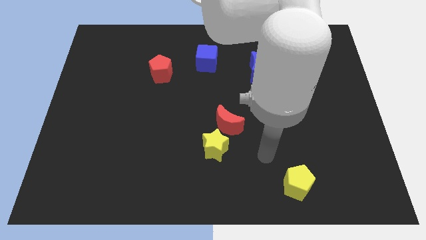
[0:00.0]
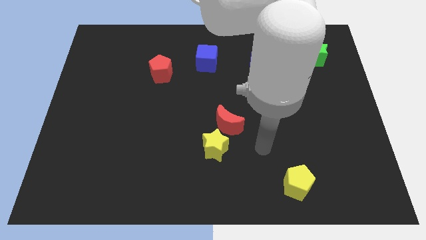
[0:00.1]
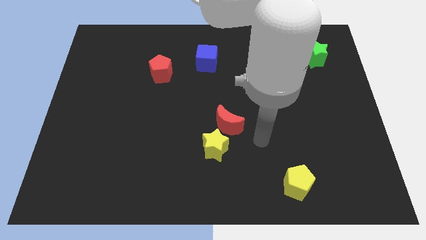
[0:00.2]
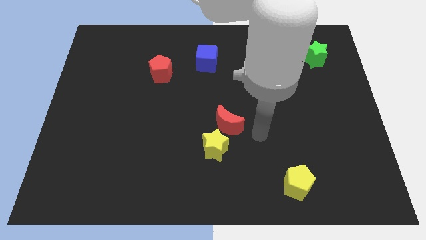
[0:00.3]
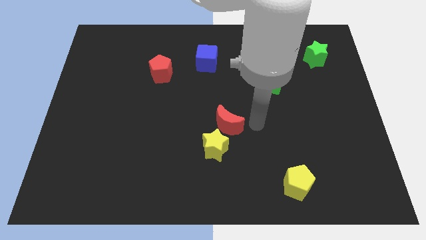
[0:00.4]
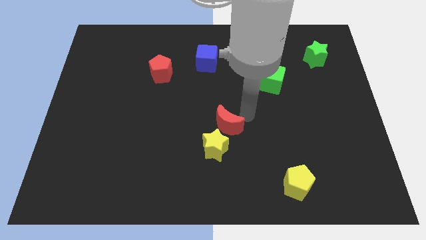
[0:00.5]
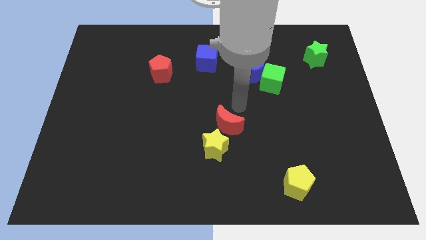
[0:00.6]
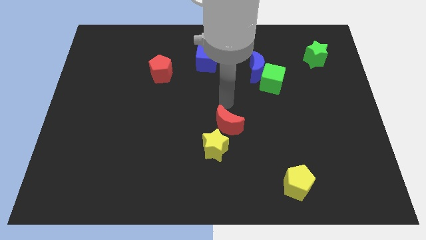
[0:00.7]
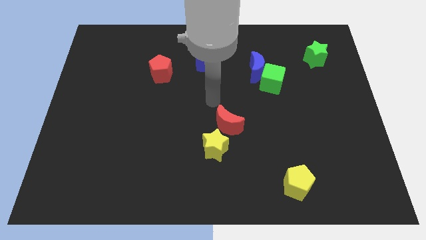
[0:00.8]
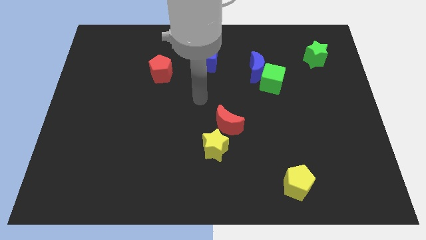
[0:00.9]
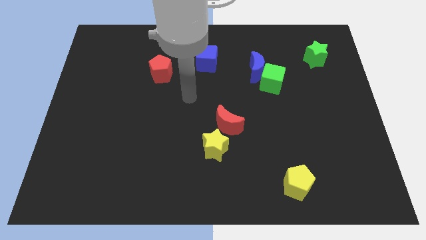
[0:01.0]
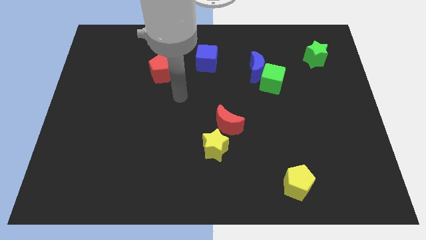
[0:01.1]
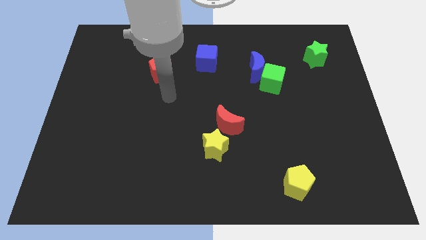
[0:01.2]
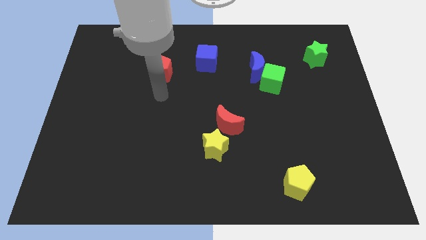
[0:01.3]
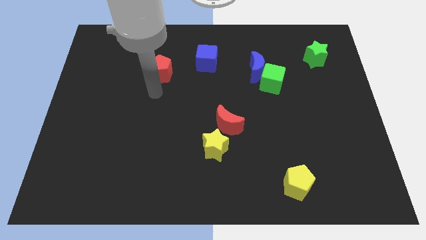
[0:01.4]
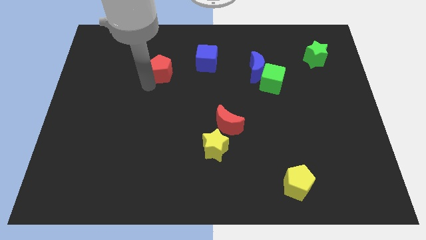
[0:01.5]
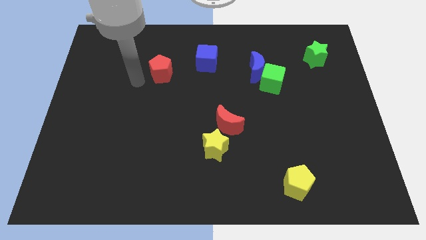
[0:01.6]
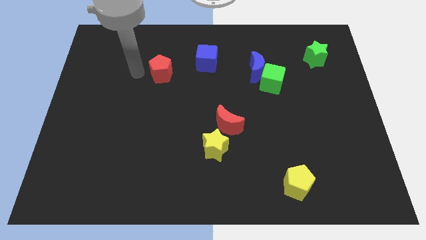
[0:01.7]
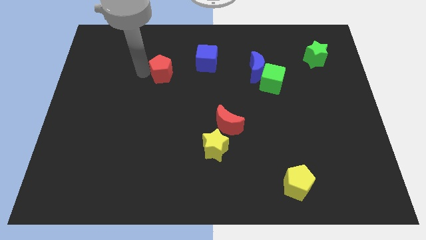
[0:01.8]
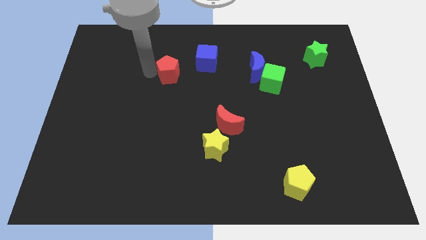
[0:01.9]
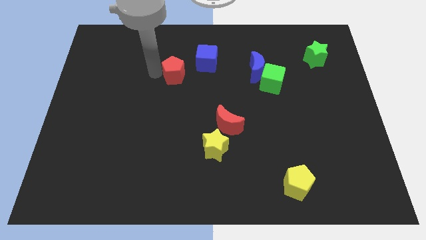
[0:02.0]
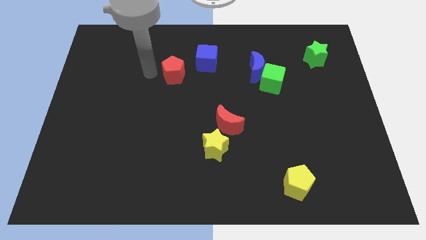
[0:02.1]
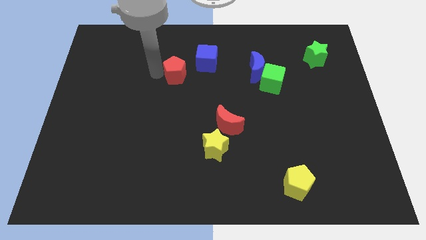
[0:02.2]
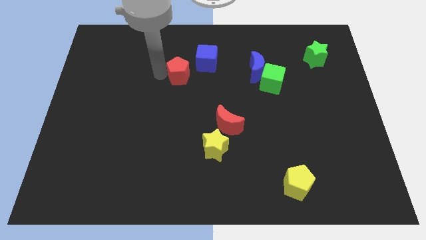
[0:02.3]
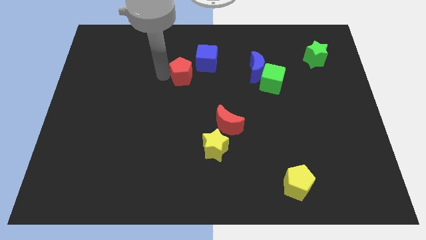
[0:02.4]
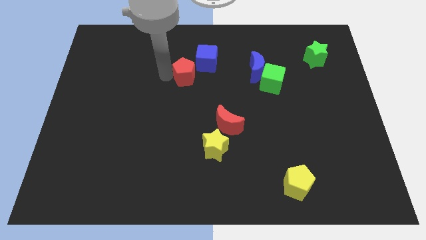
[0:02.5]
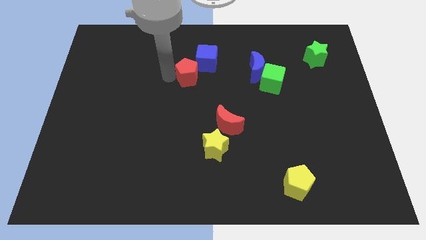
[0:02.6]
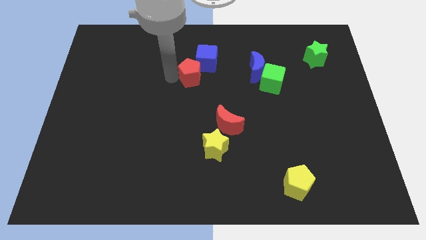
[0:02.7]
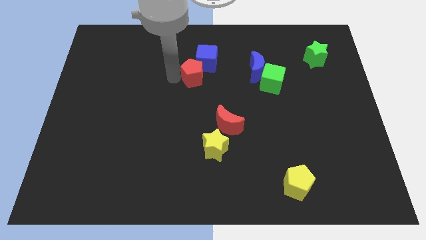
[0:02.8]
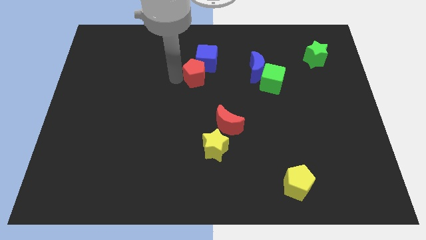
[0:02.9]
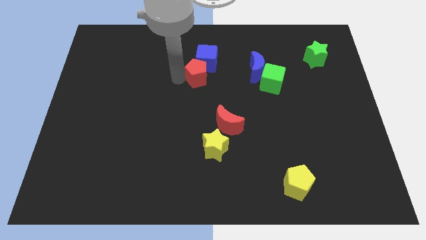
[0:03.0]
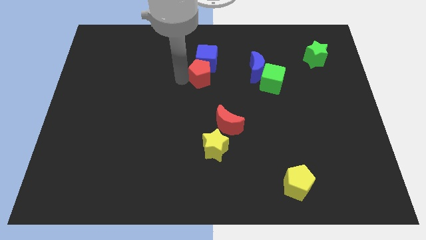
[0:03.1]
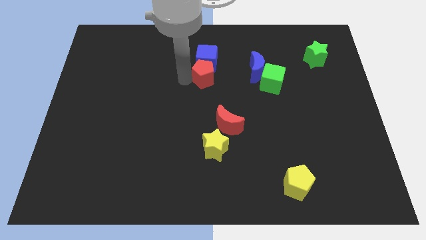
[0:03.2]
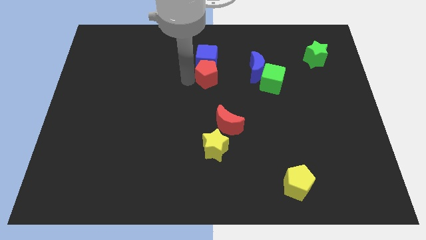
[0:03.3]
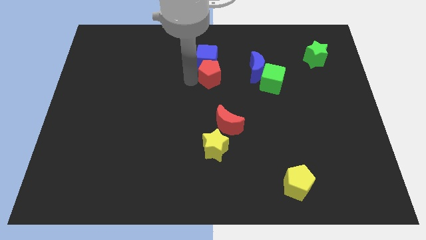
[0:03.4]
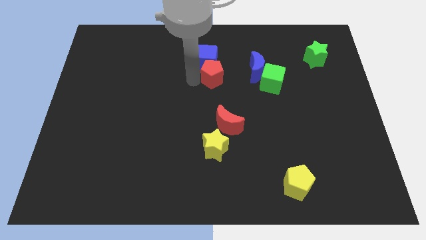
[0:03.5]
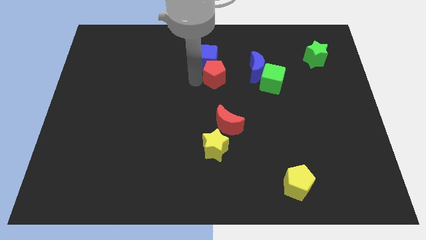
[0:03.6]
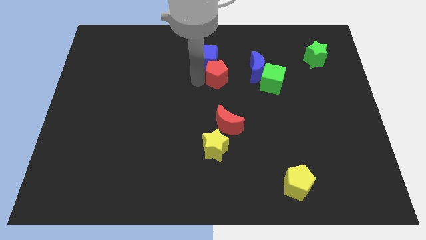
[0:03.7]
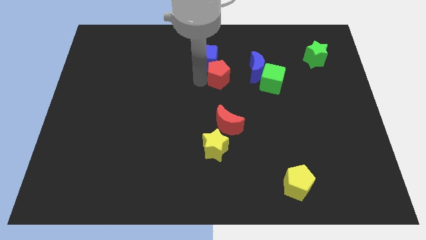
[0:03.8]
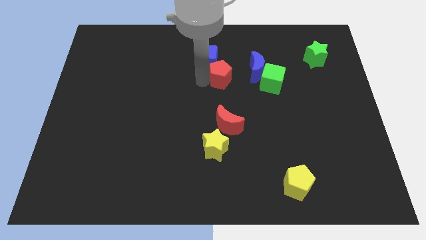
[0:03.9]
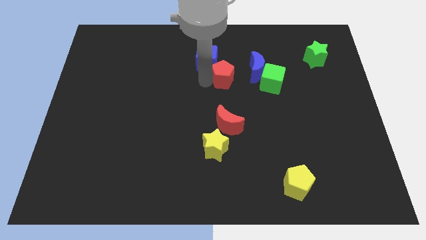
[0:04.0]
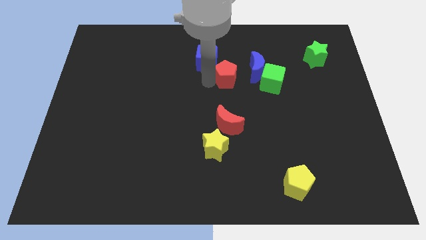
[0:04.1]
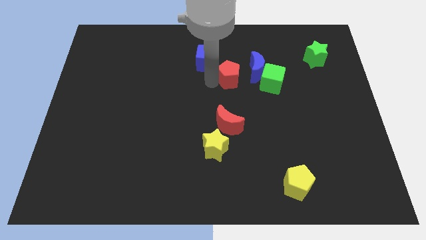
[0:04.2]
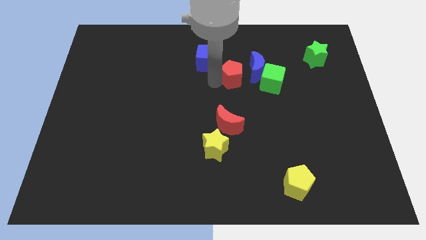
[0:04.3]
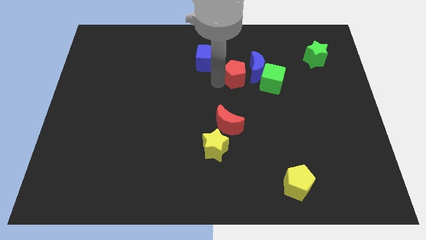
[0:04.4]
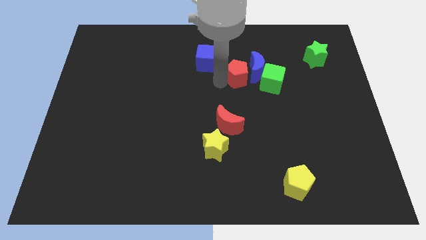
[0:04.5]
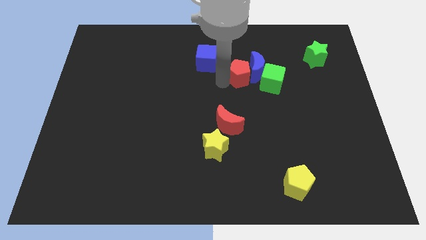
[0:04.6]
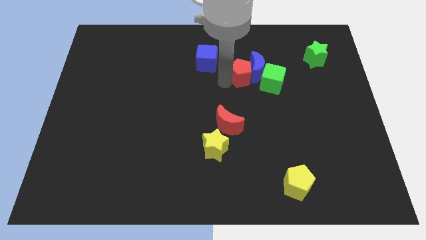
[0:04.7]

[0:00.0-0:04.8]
slide the red pentagon right

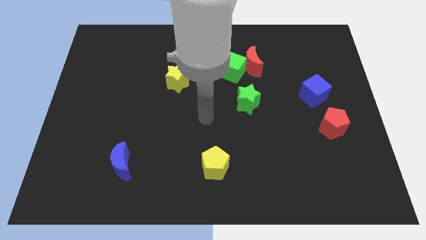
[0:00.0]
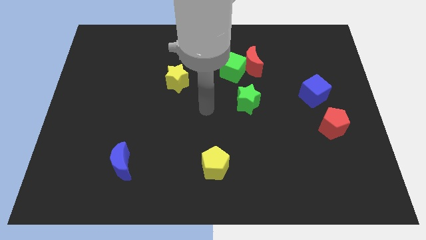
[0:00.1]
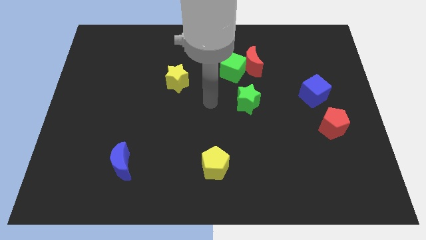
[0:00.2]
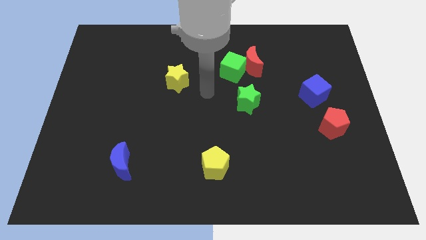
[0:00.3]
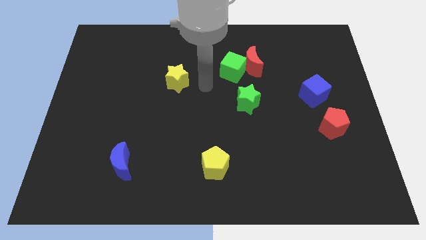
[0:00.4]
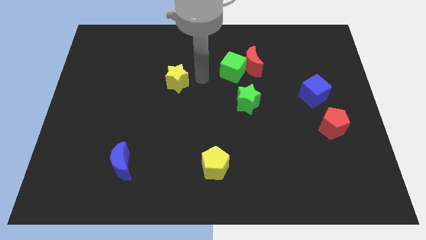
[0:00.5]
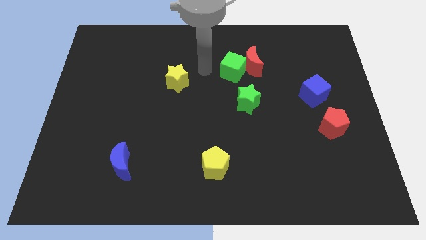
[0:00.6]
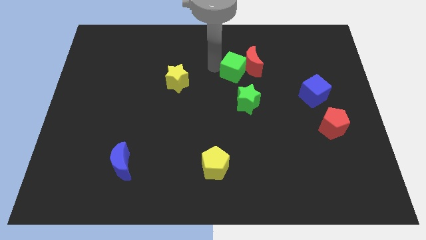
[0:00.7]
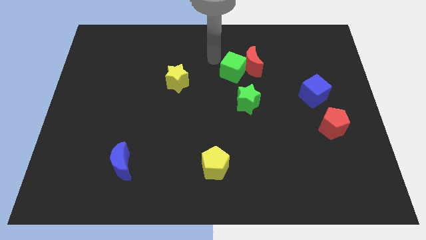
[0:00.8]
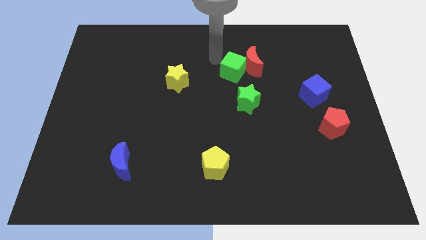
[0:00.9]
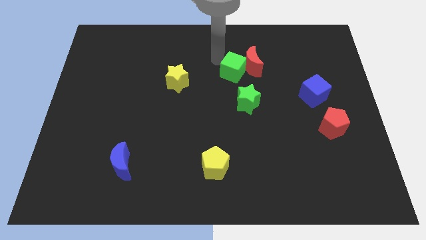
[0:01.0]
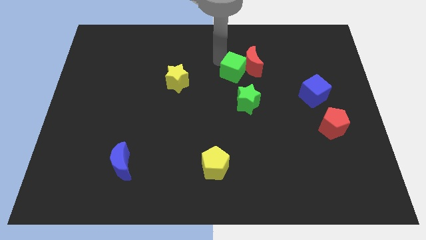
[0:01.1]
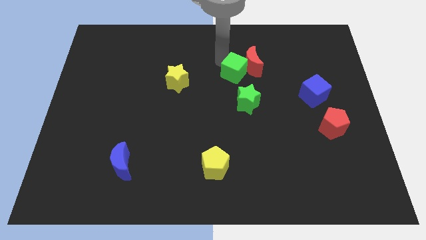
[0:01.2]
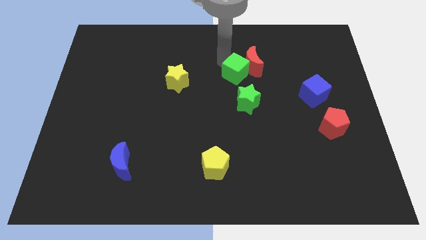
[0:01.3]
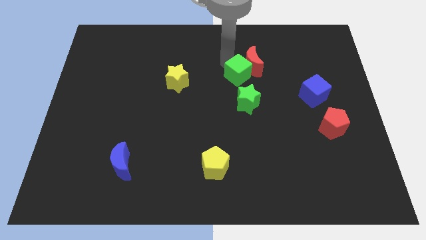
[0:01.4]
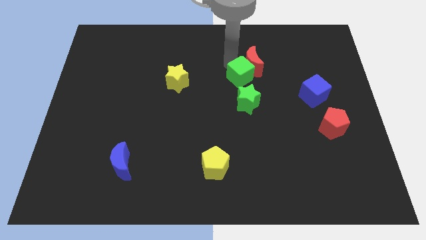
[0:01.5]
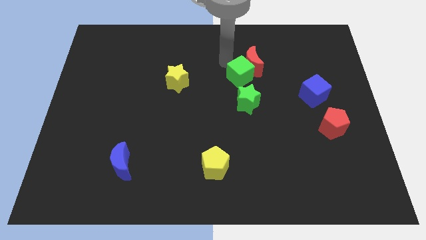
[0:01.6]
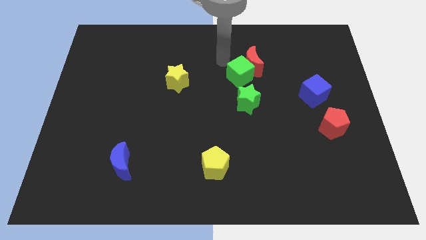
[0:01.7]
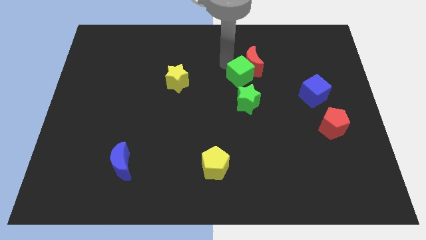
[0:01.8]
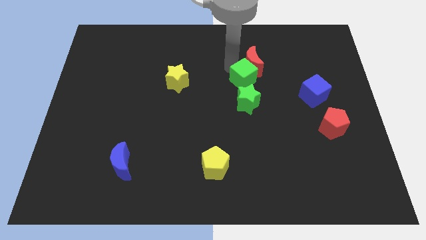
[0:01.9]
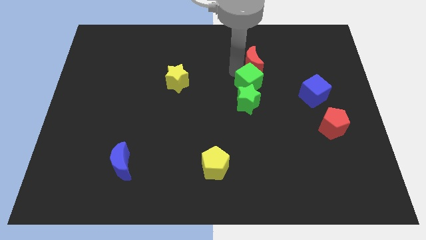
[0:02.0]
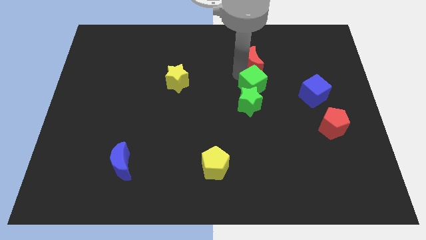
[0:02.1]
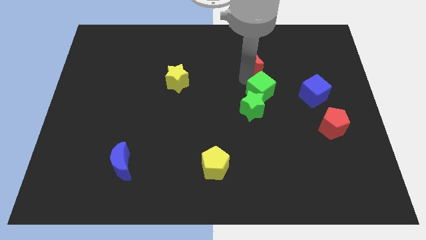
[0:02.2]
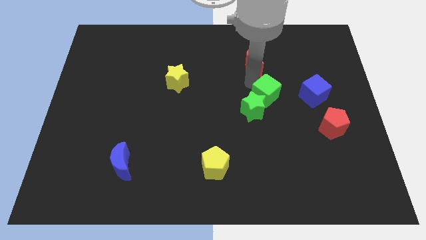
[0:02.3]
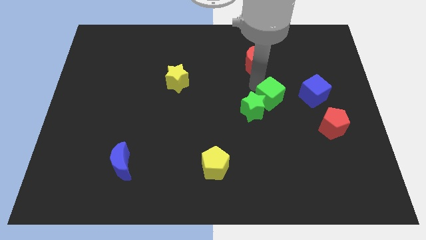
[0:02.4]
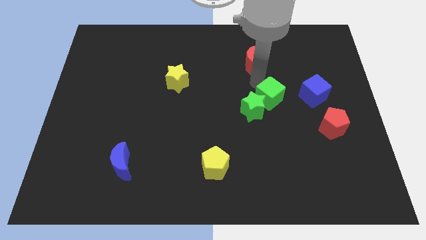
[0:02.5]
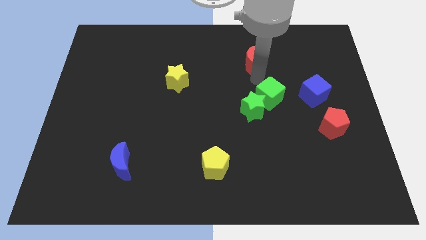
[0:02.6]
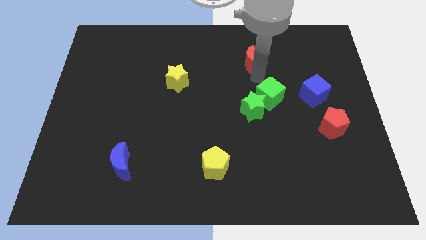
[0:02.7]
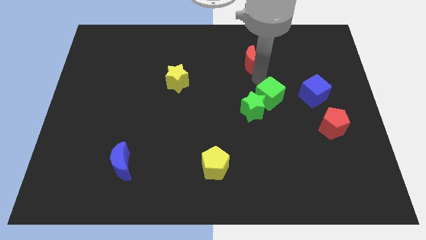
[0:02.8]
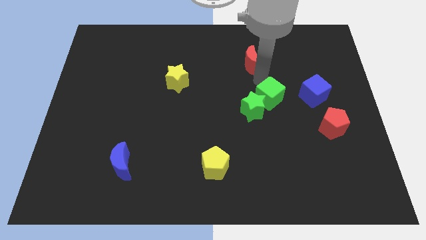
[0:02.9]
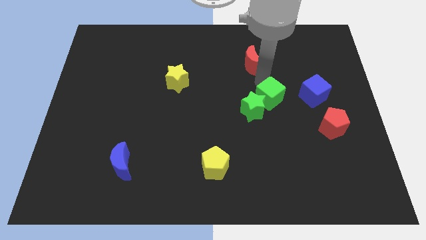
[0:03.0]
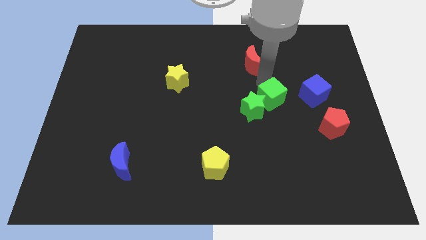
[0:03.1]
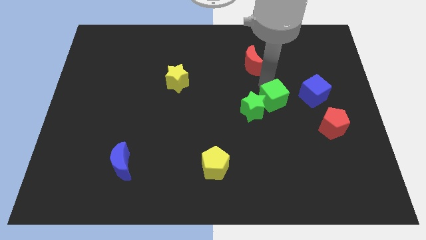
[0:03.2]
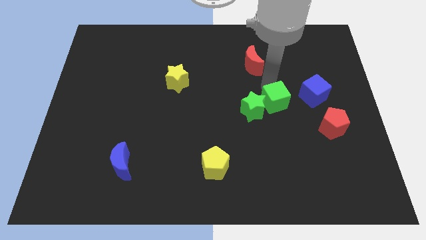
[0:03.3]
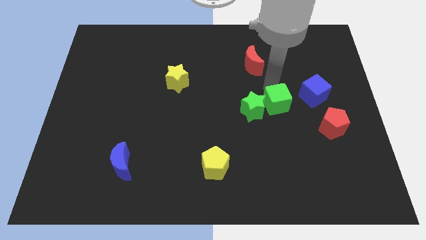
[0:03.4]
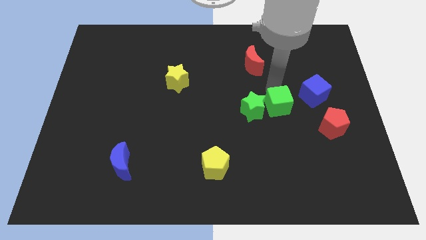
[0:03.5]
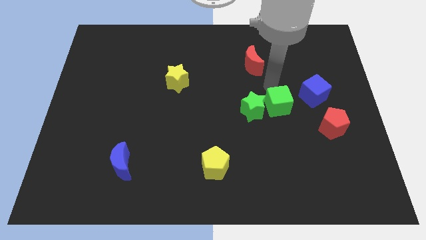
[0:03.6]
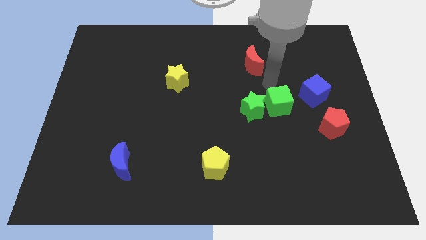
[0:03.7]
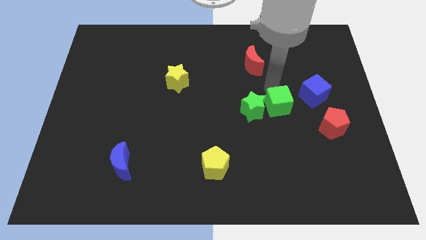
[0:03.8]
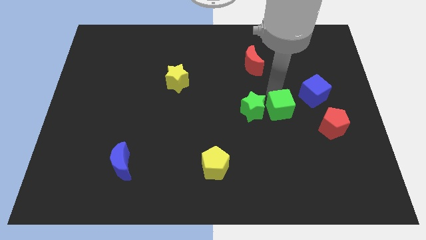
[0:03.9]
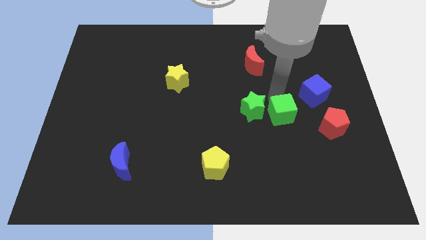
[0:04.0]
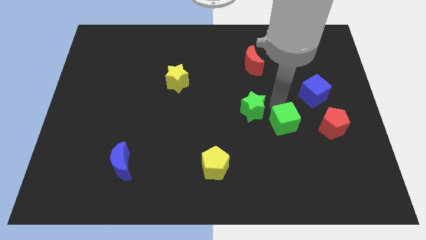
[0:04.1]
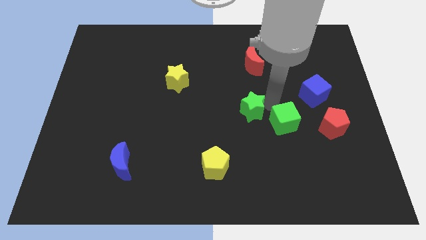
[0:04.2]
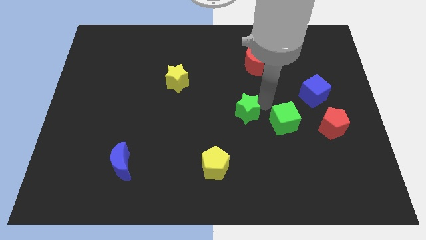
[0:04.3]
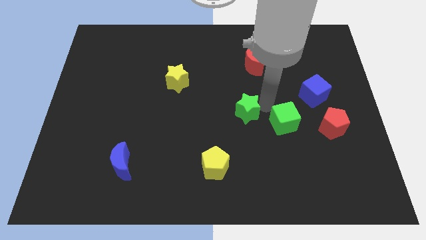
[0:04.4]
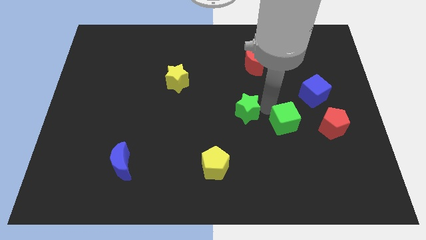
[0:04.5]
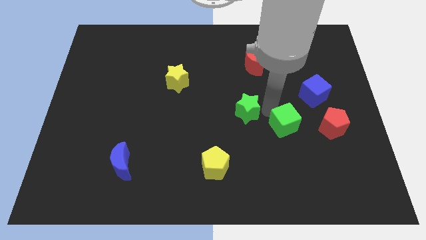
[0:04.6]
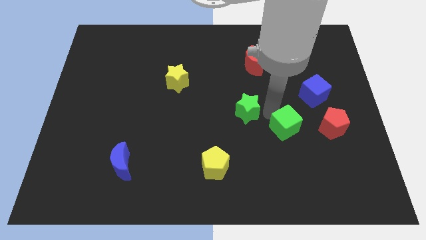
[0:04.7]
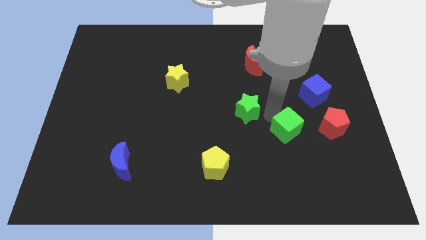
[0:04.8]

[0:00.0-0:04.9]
push the green cube down and right
